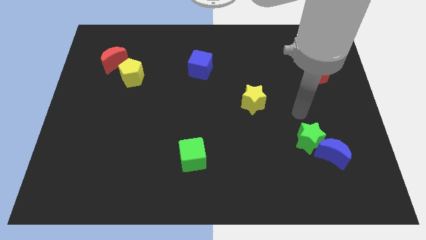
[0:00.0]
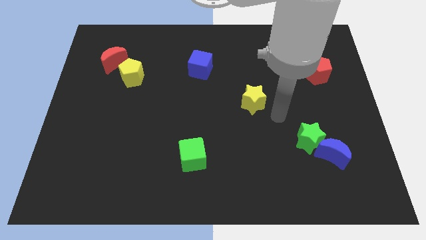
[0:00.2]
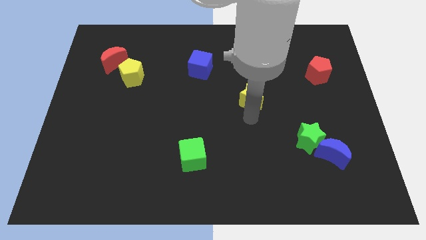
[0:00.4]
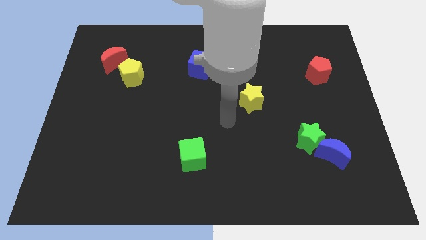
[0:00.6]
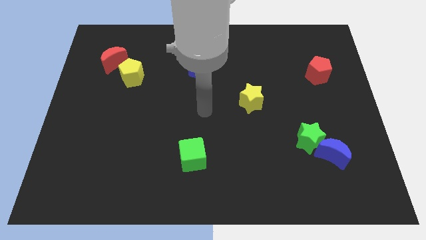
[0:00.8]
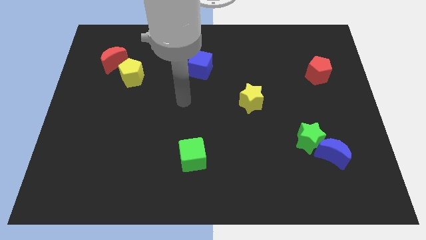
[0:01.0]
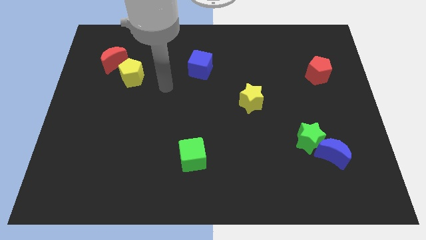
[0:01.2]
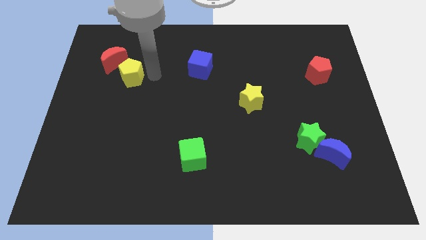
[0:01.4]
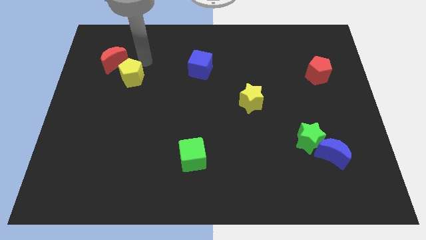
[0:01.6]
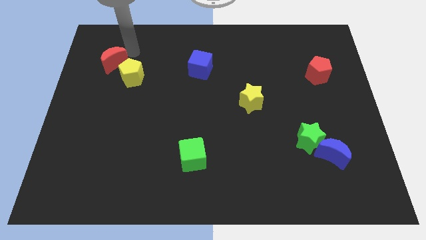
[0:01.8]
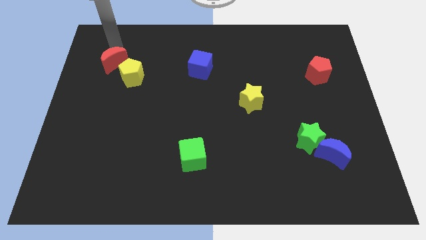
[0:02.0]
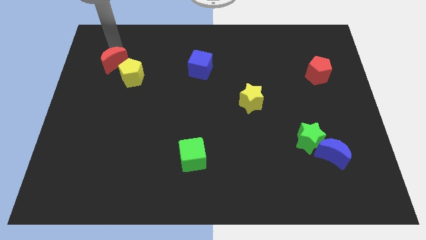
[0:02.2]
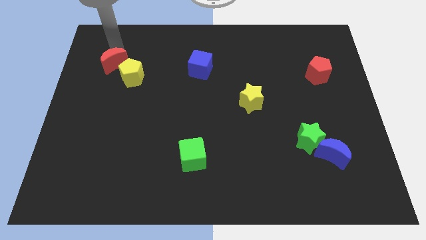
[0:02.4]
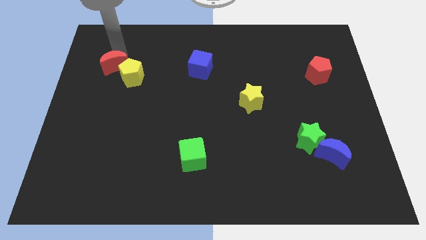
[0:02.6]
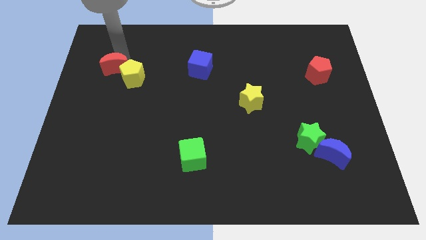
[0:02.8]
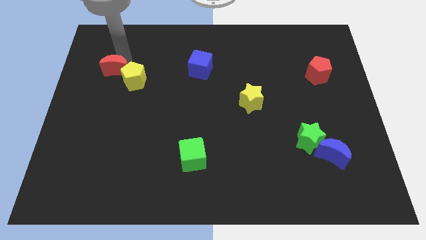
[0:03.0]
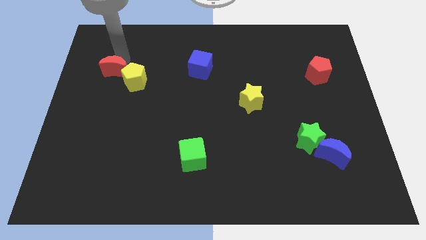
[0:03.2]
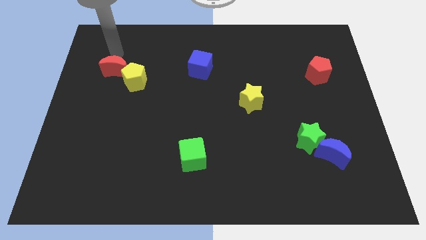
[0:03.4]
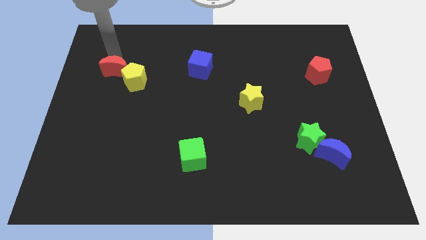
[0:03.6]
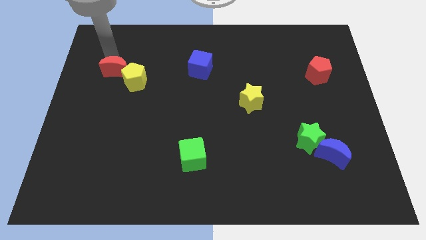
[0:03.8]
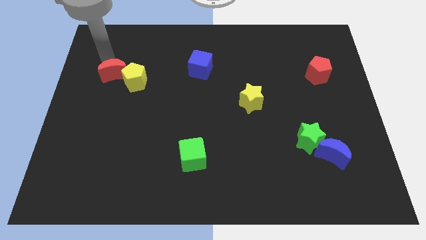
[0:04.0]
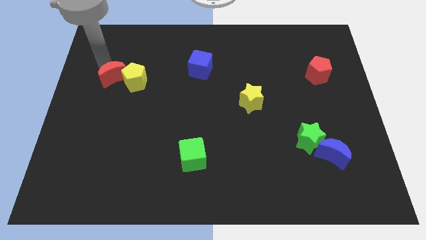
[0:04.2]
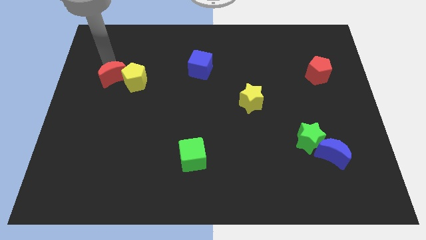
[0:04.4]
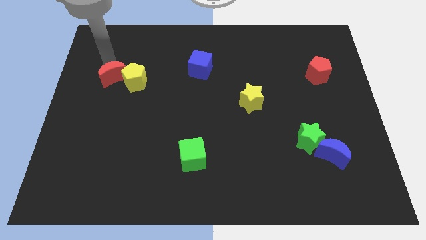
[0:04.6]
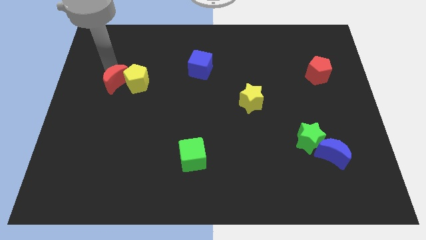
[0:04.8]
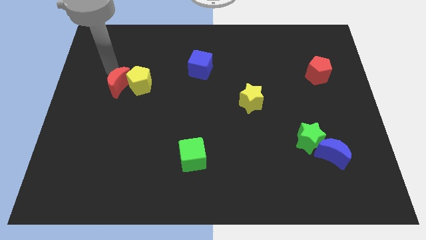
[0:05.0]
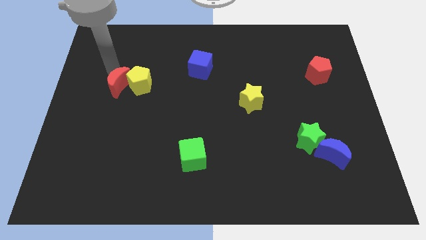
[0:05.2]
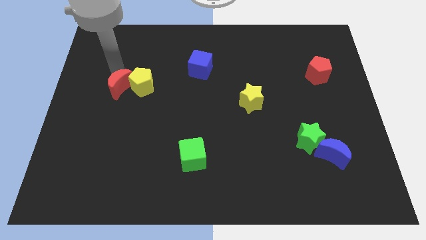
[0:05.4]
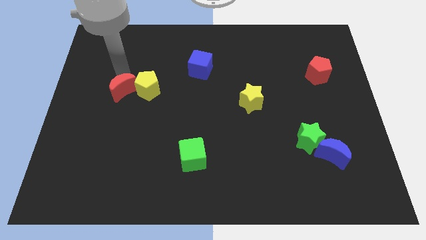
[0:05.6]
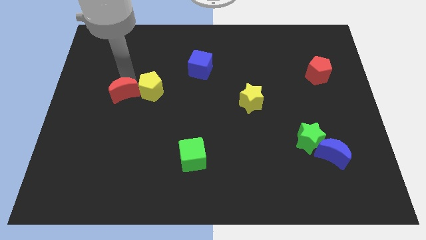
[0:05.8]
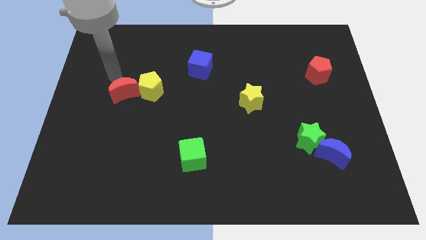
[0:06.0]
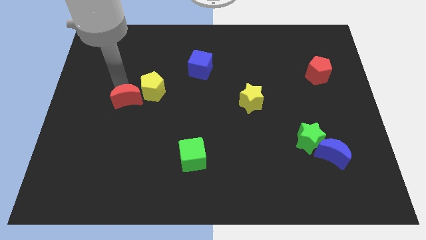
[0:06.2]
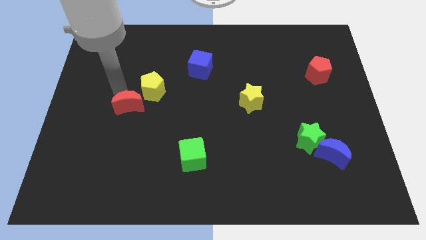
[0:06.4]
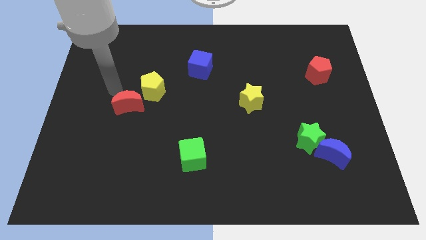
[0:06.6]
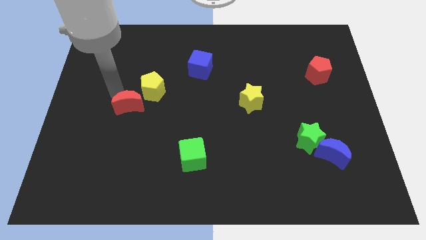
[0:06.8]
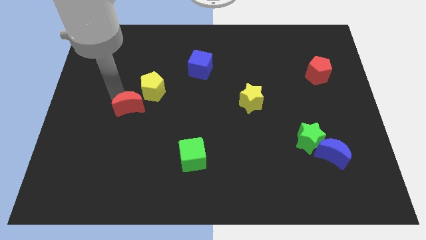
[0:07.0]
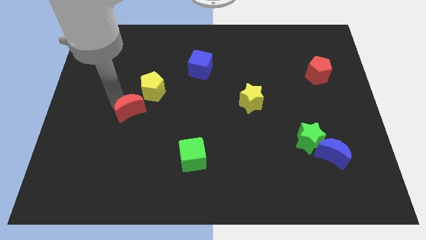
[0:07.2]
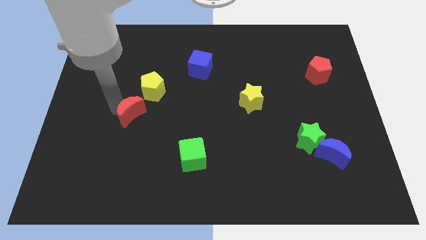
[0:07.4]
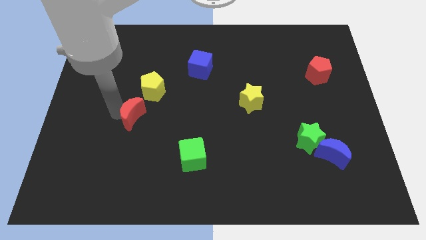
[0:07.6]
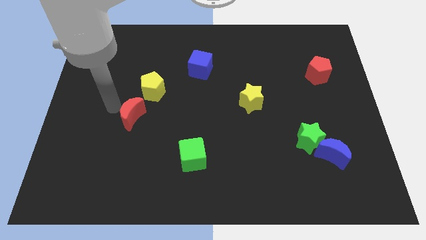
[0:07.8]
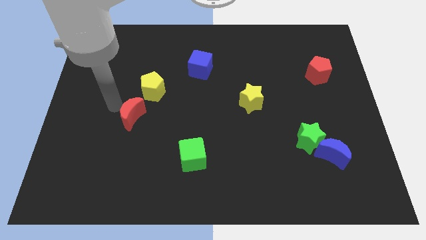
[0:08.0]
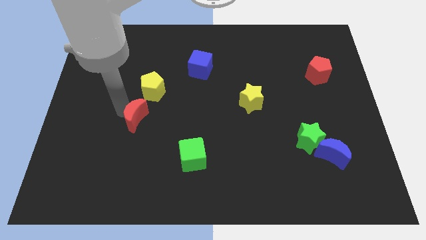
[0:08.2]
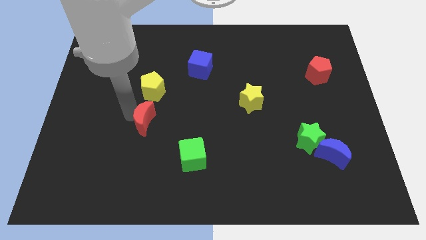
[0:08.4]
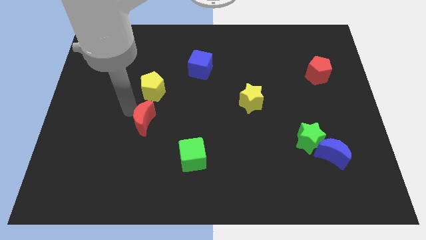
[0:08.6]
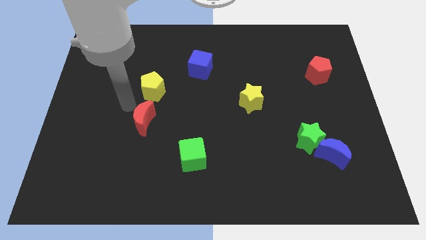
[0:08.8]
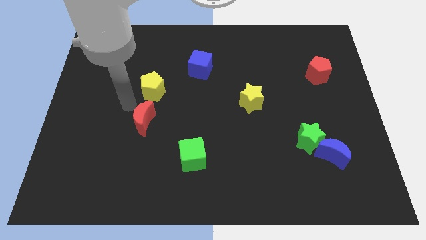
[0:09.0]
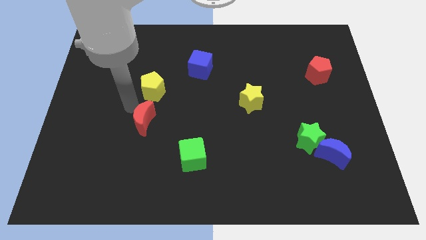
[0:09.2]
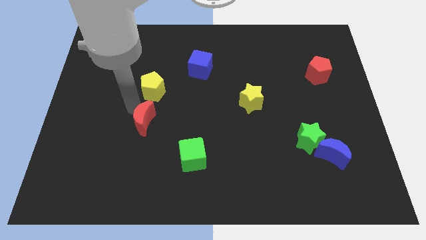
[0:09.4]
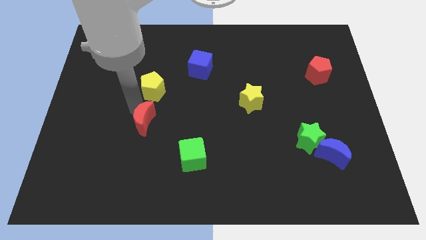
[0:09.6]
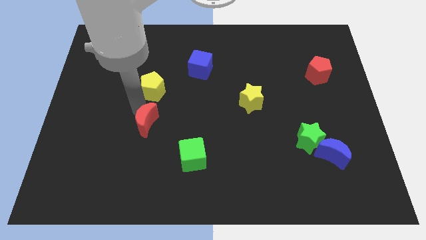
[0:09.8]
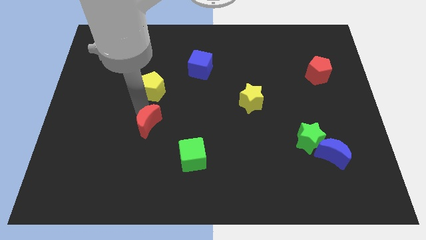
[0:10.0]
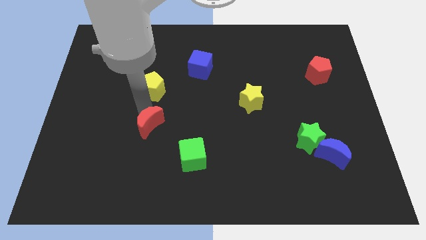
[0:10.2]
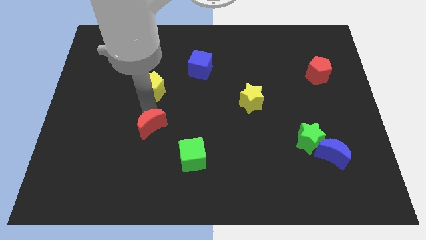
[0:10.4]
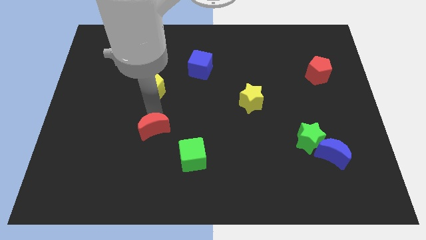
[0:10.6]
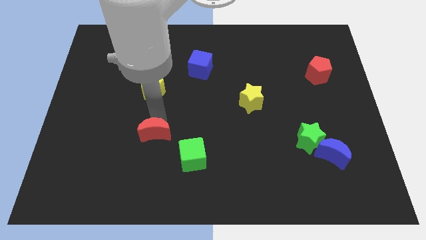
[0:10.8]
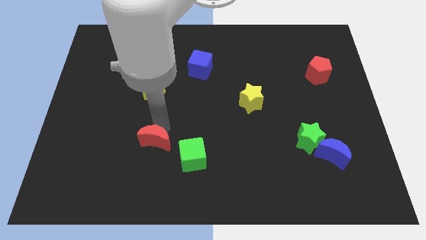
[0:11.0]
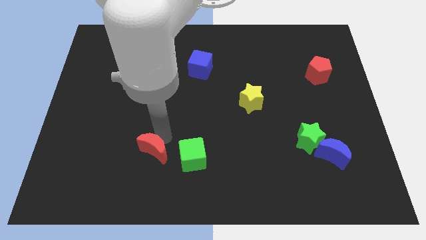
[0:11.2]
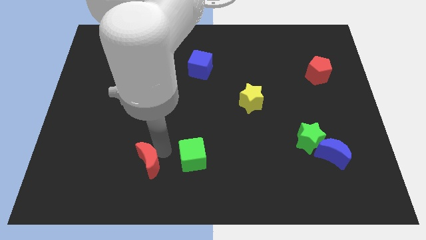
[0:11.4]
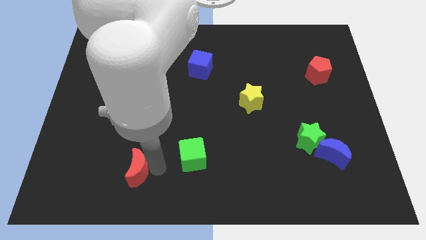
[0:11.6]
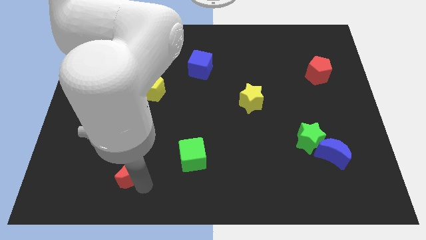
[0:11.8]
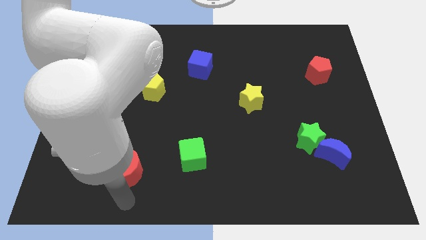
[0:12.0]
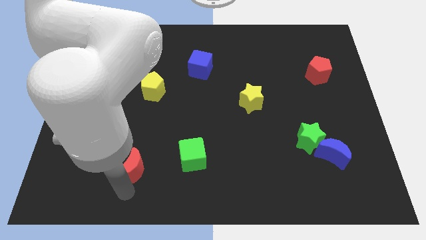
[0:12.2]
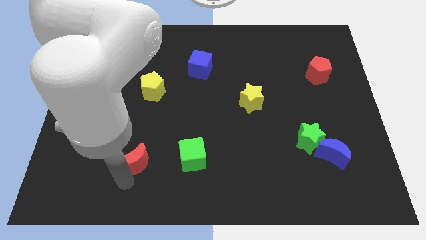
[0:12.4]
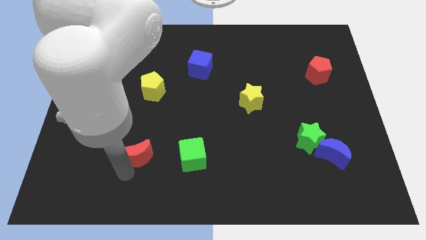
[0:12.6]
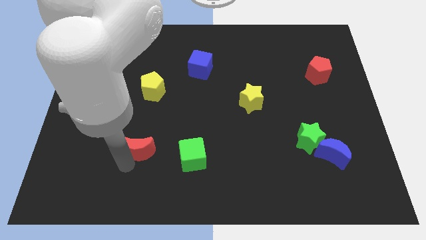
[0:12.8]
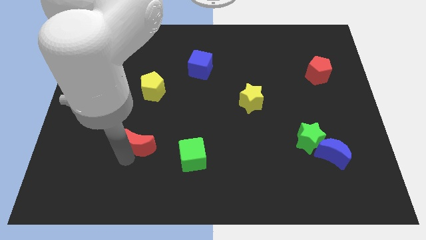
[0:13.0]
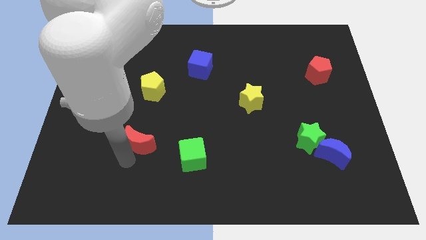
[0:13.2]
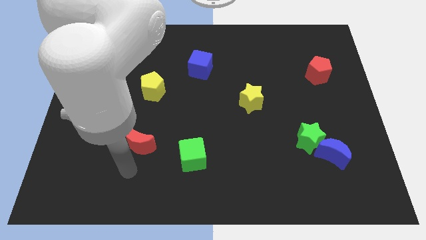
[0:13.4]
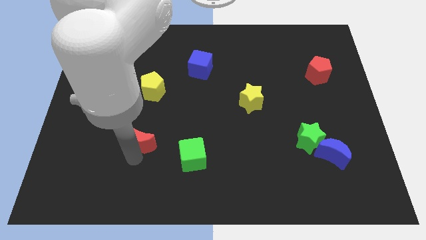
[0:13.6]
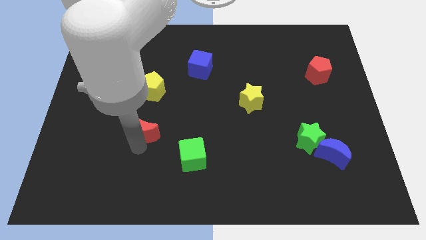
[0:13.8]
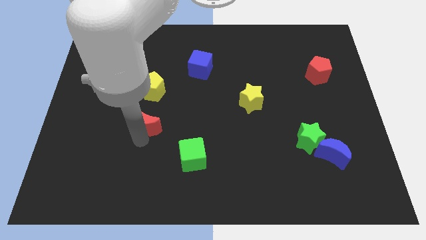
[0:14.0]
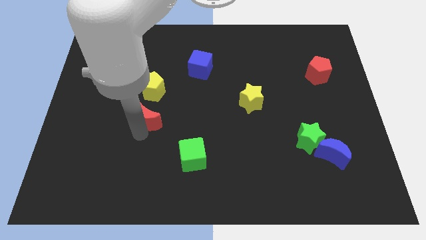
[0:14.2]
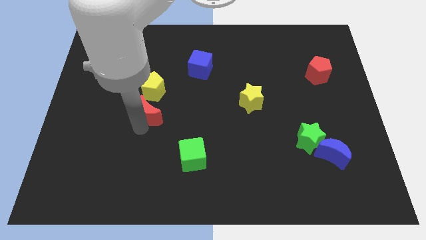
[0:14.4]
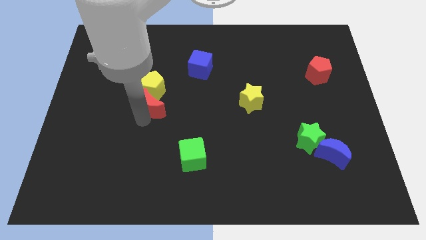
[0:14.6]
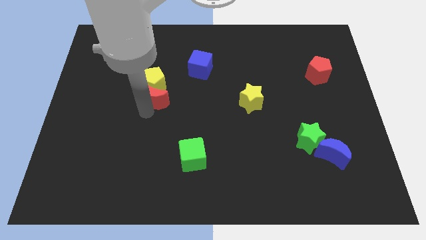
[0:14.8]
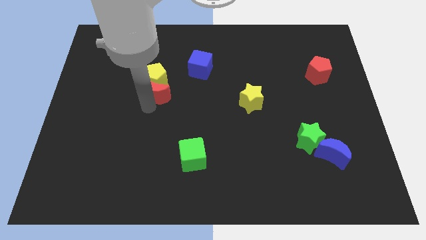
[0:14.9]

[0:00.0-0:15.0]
move the red moon below the yellow pentagon

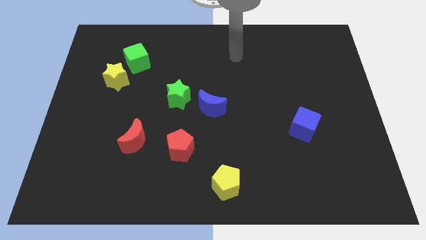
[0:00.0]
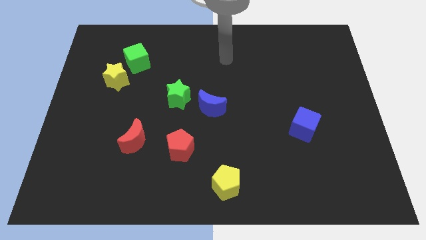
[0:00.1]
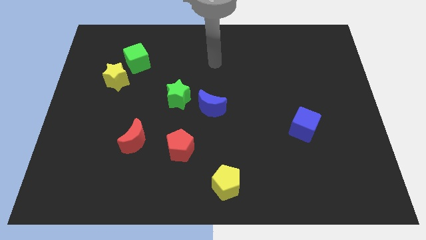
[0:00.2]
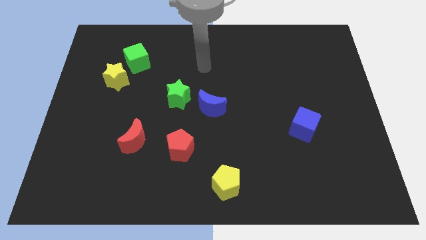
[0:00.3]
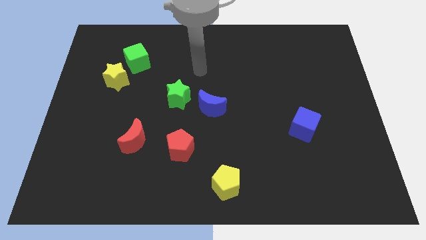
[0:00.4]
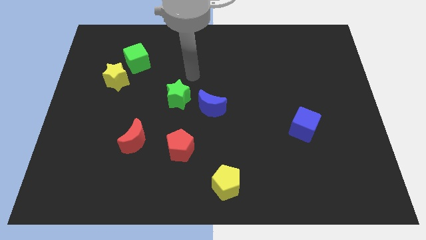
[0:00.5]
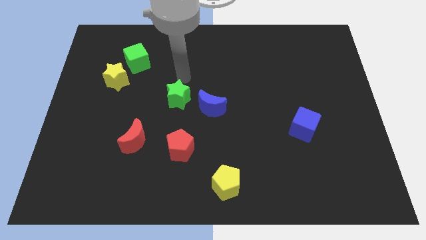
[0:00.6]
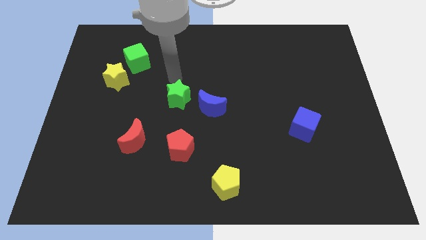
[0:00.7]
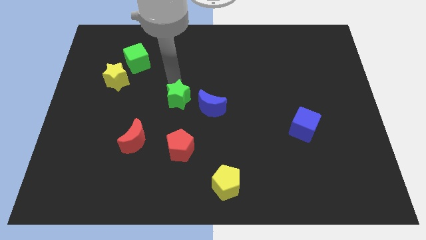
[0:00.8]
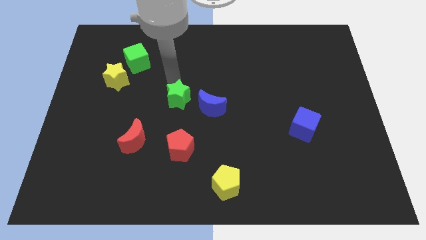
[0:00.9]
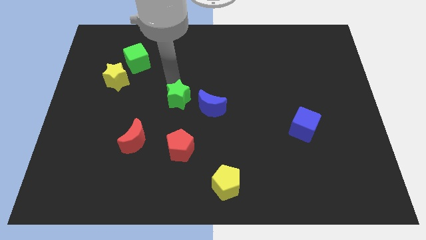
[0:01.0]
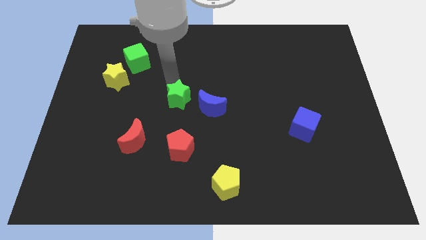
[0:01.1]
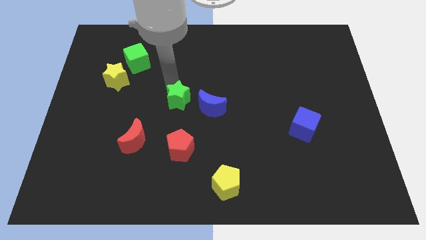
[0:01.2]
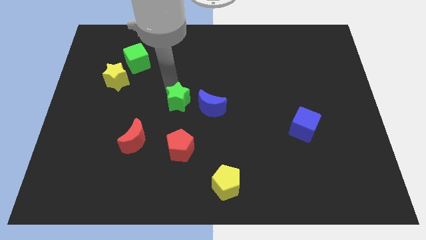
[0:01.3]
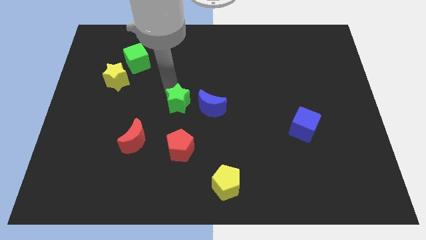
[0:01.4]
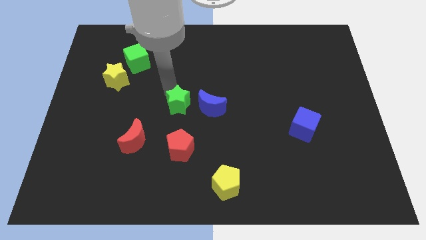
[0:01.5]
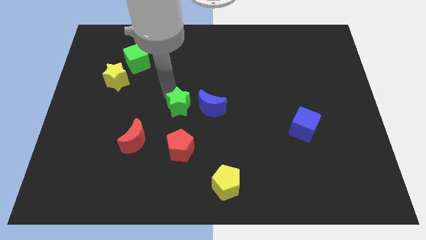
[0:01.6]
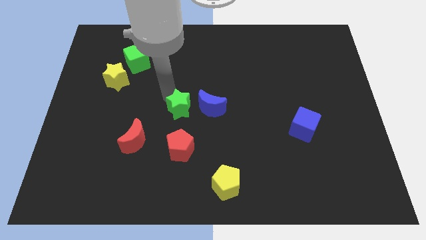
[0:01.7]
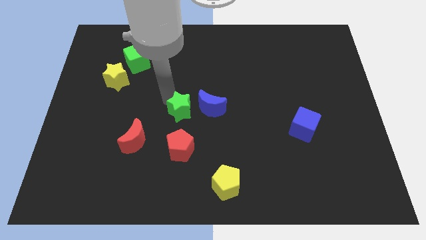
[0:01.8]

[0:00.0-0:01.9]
move the green star to the bottom left side of the blue moon
